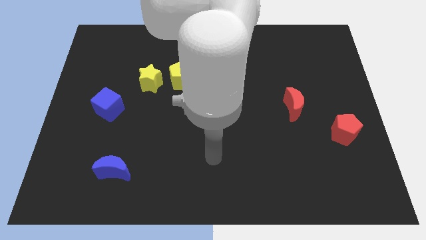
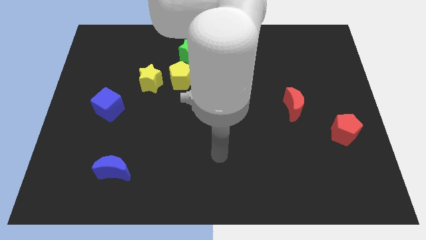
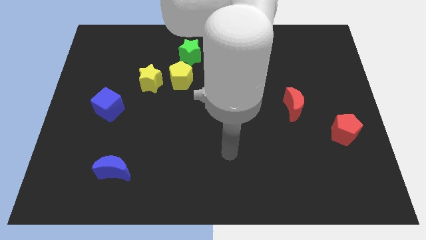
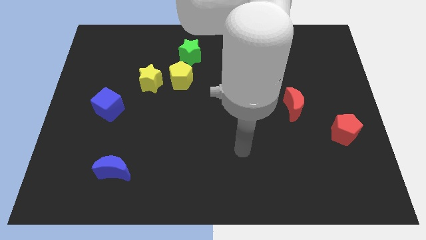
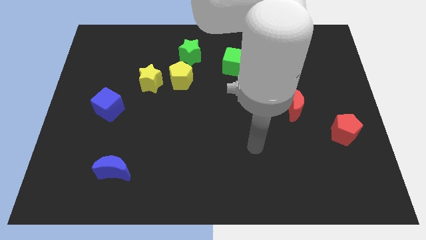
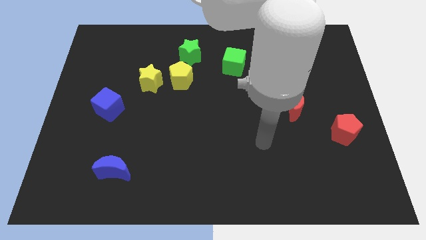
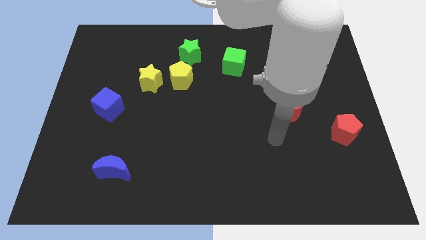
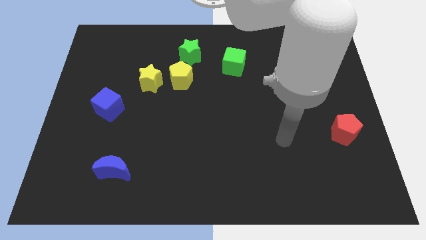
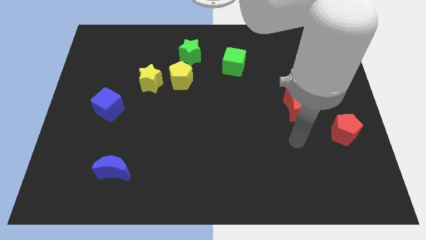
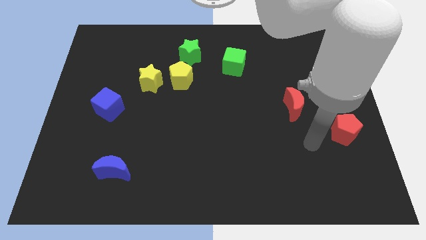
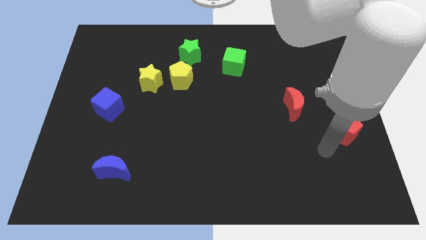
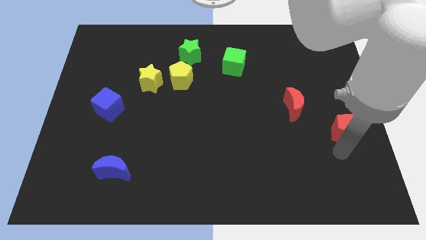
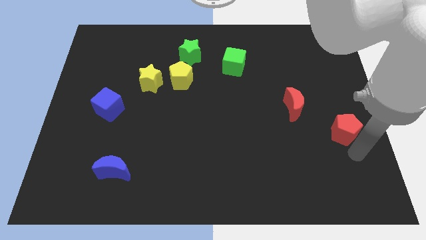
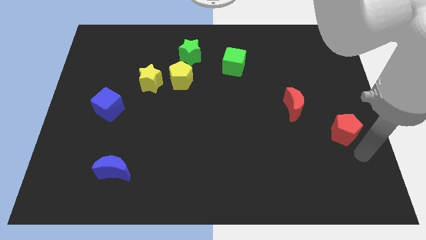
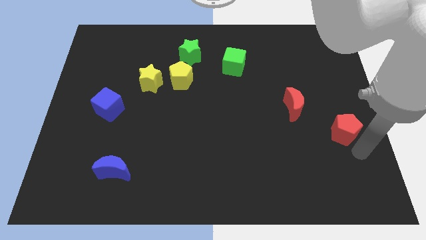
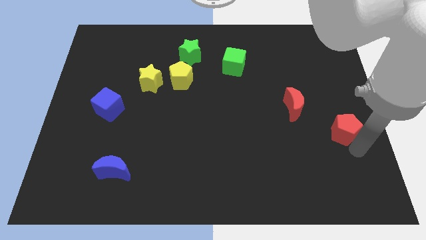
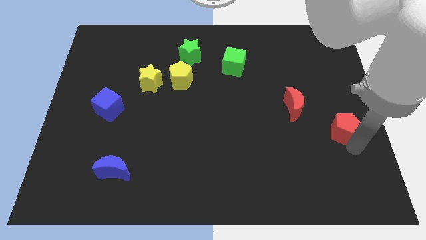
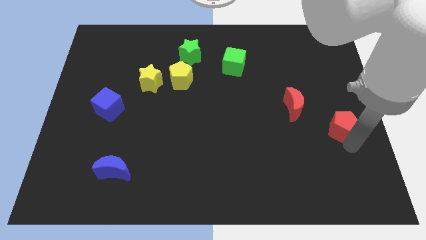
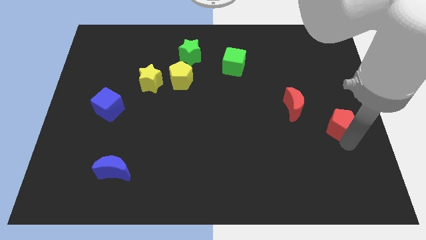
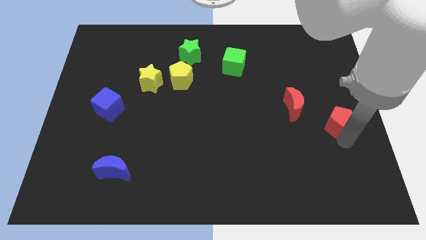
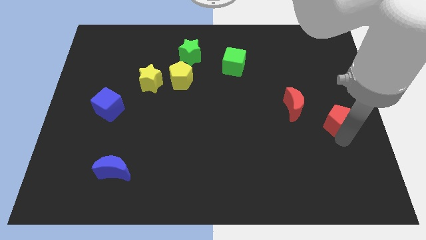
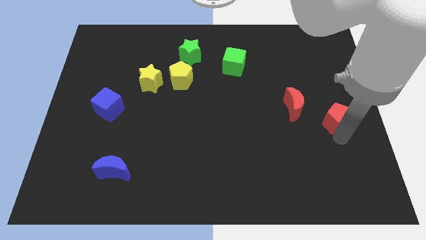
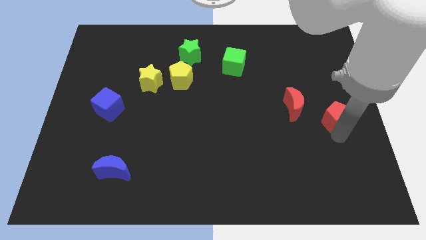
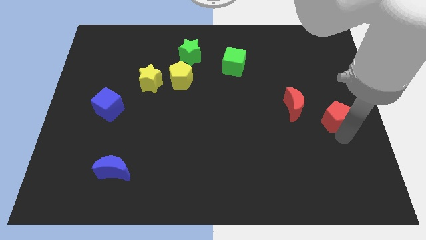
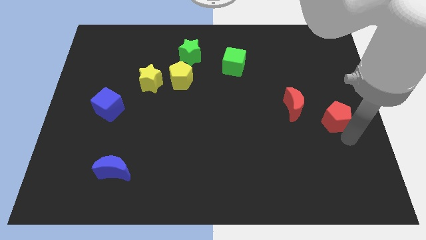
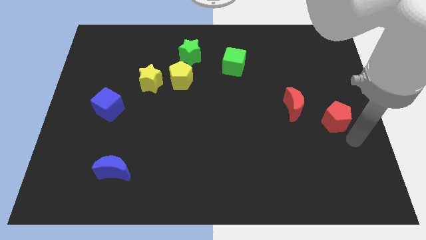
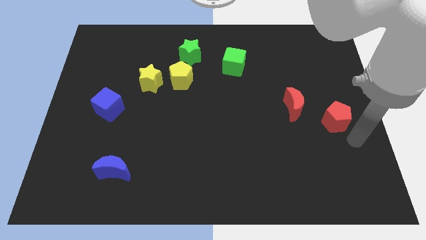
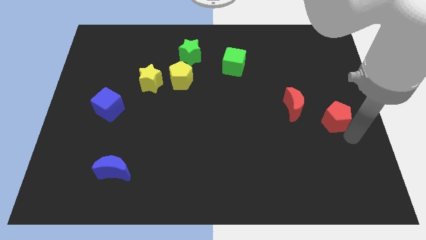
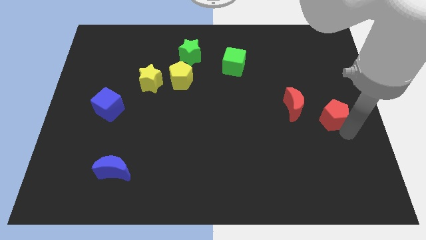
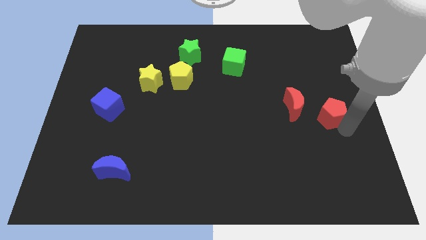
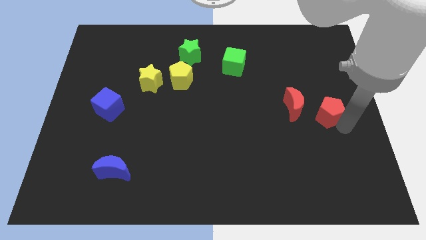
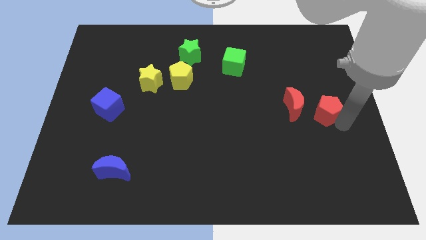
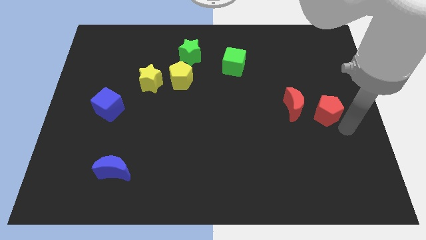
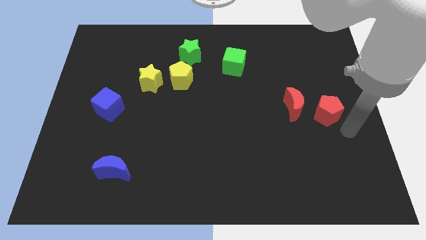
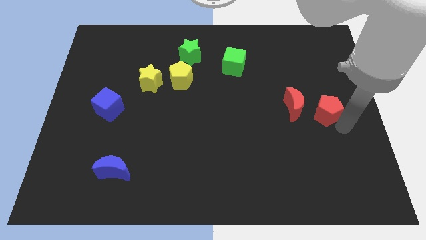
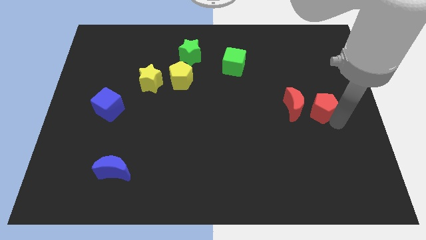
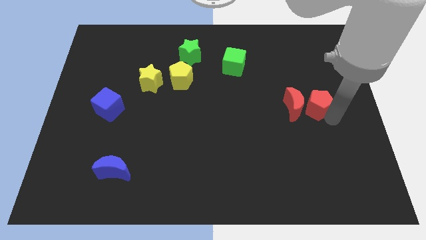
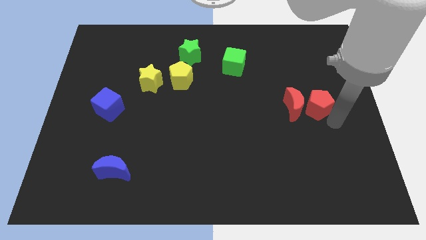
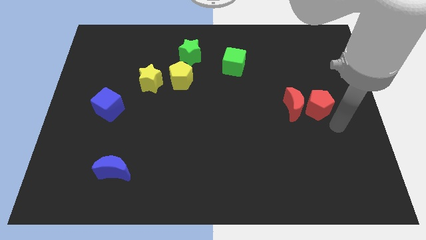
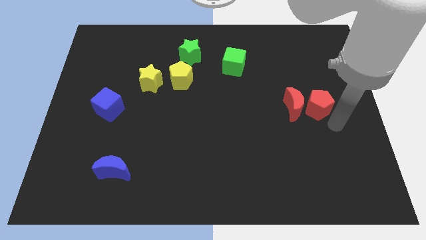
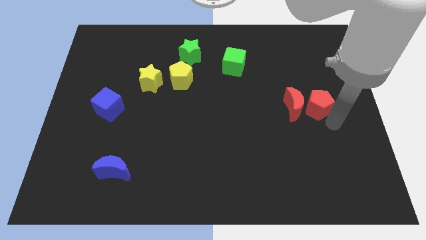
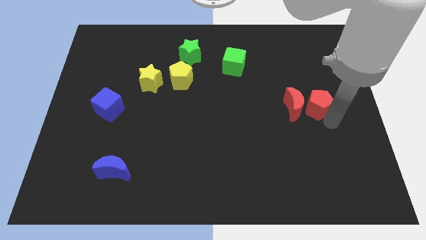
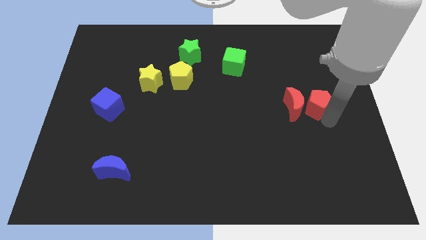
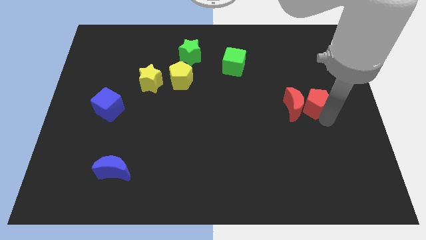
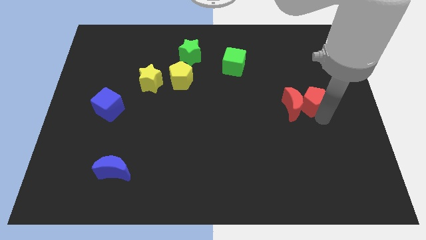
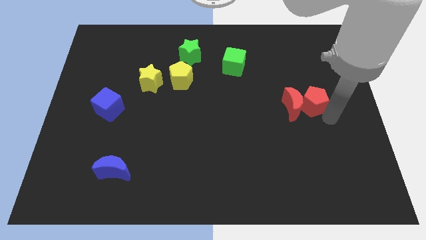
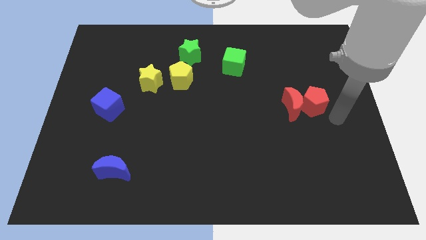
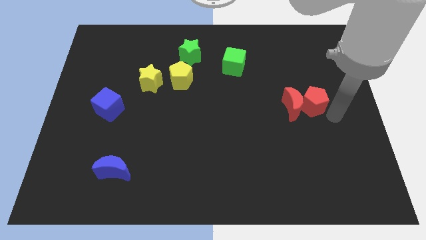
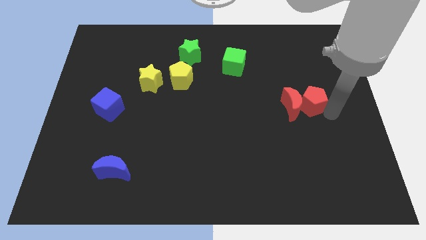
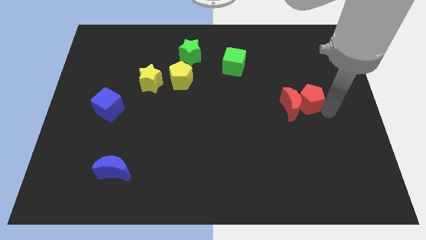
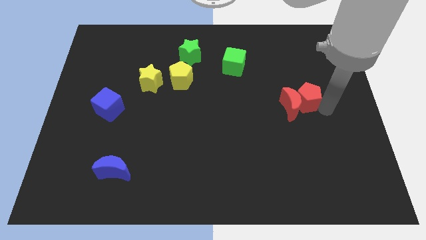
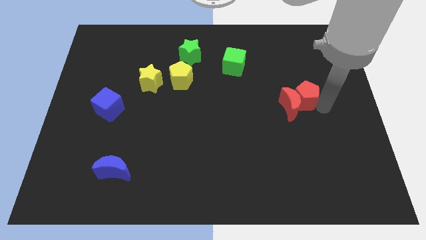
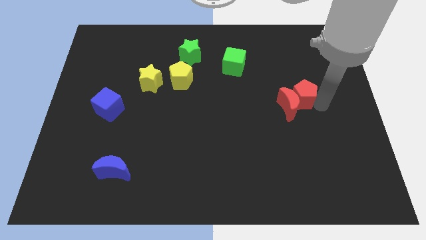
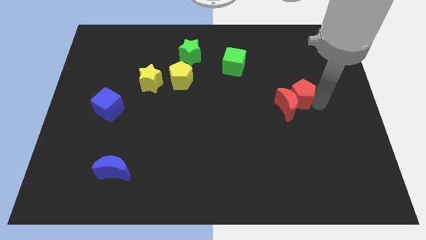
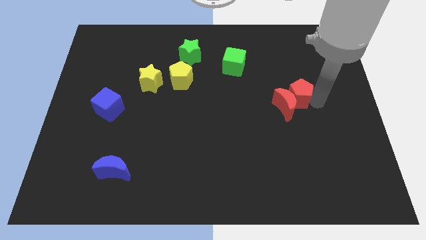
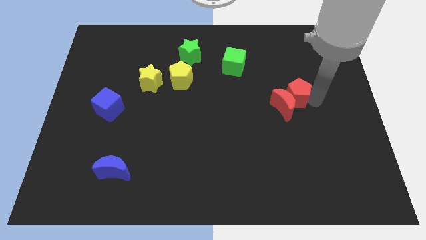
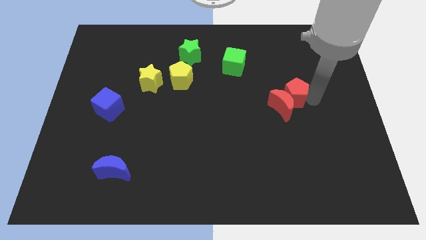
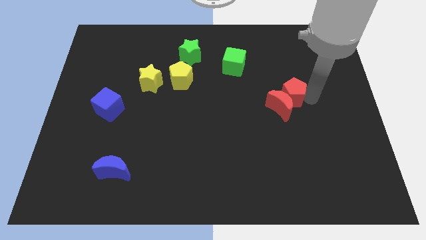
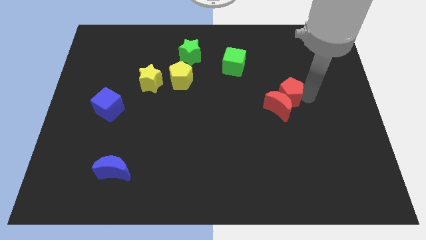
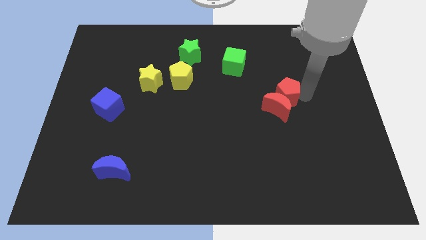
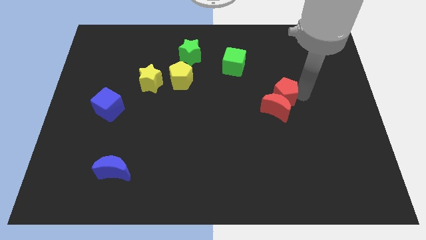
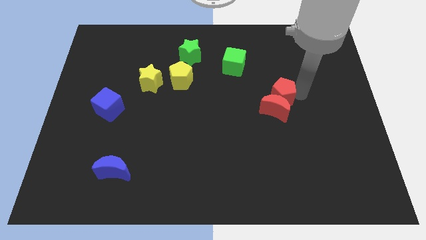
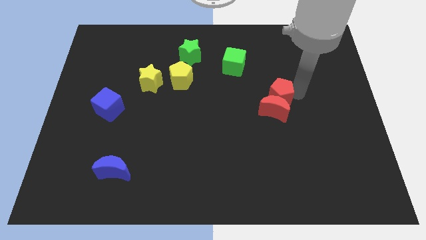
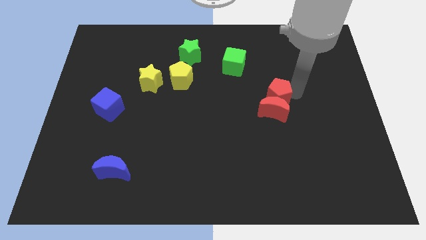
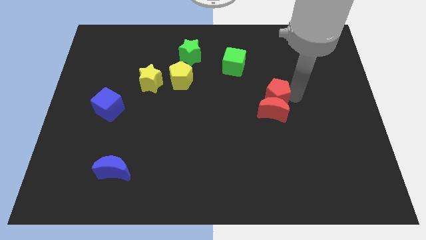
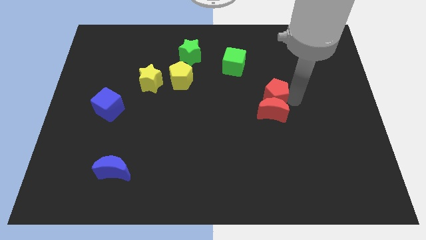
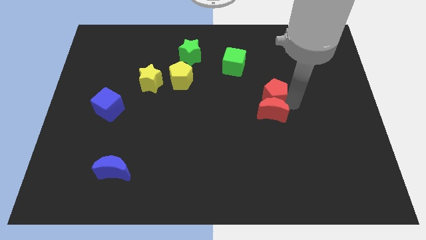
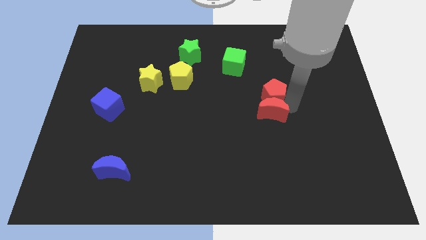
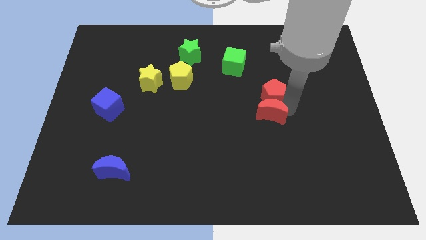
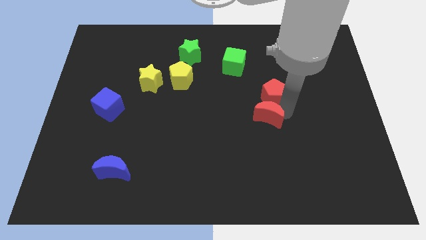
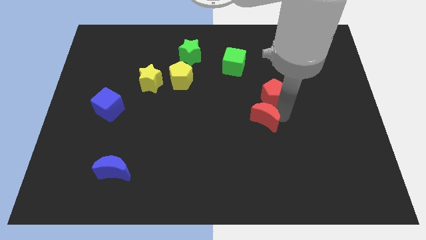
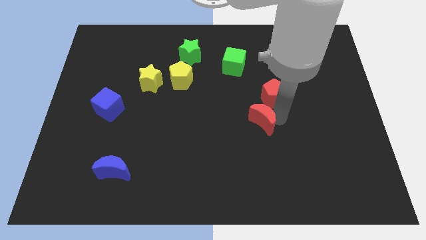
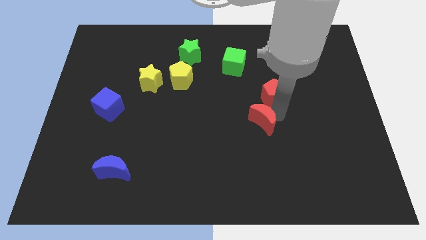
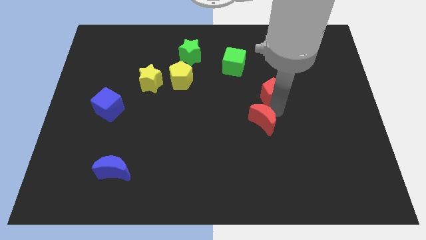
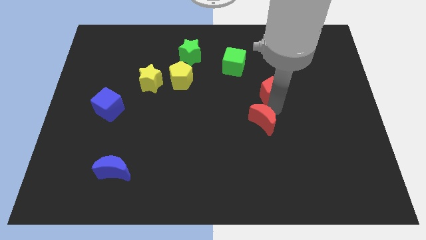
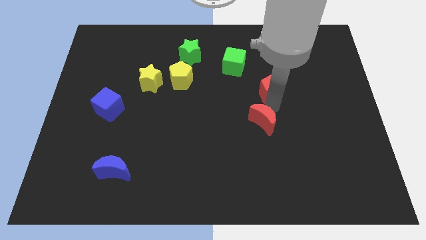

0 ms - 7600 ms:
slide the red pentagon diagonally down and to the right of the green cube
